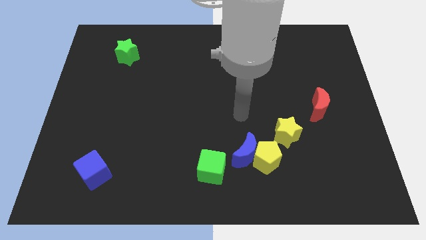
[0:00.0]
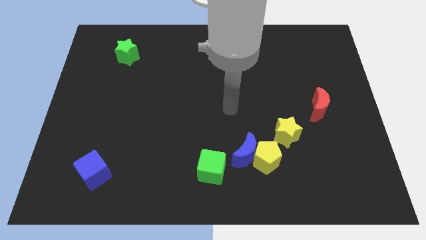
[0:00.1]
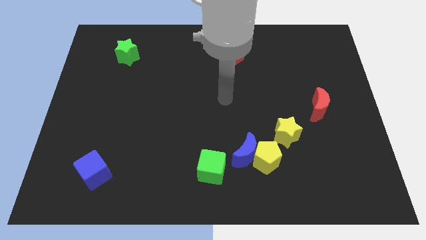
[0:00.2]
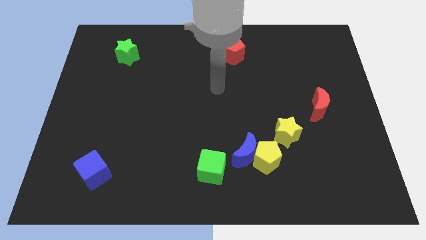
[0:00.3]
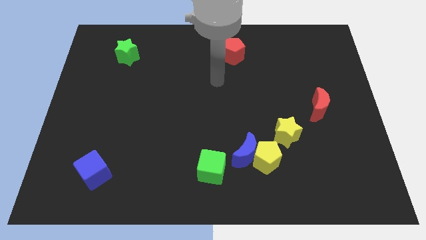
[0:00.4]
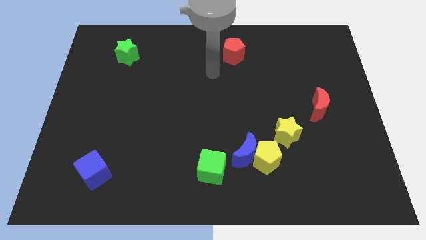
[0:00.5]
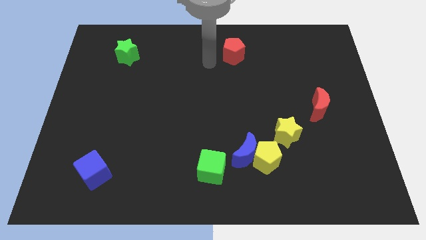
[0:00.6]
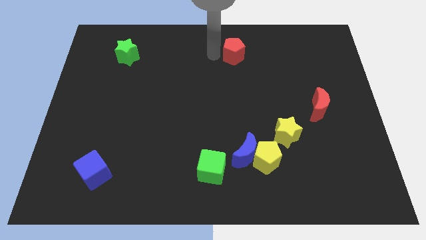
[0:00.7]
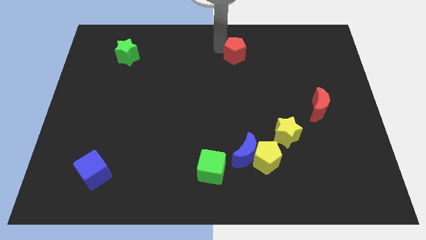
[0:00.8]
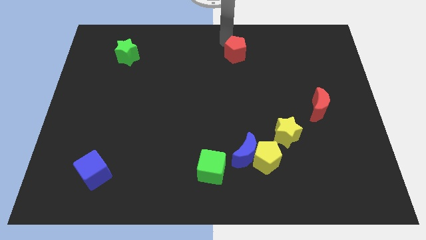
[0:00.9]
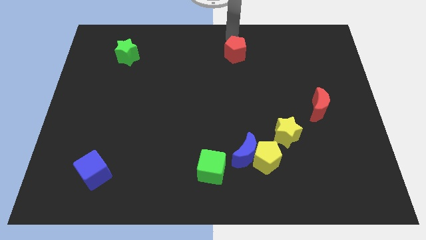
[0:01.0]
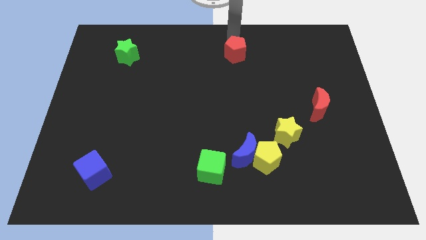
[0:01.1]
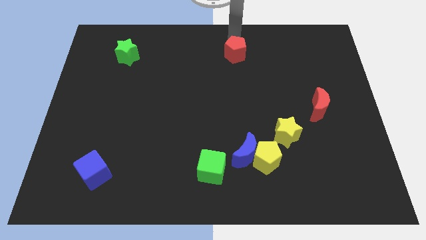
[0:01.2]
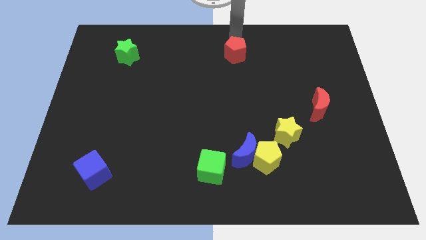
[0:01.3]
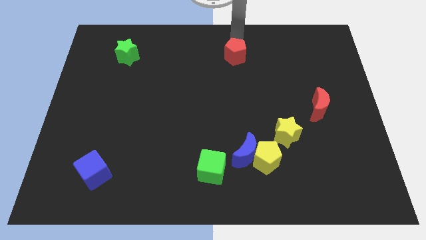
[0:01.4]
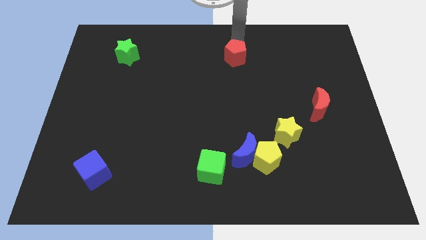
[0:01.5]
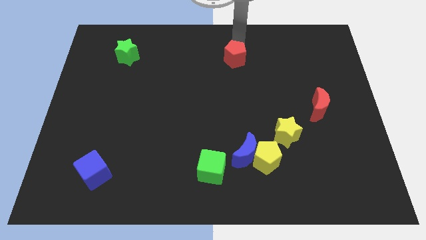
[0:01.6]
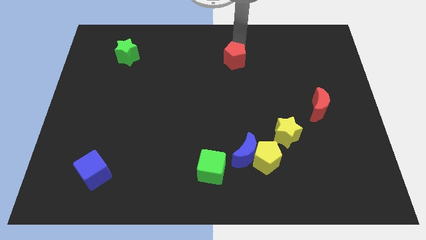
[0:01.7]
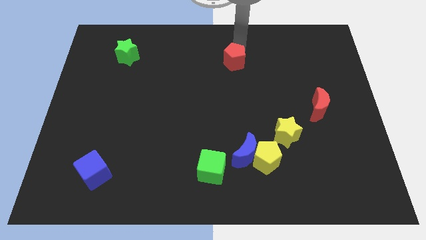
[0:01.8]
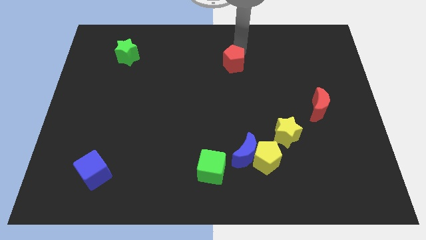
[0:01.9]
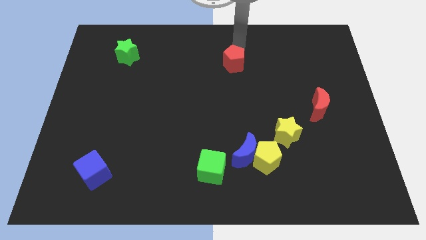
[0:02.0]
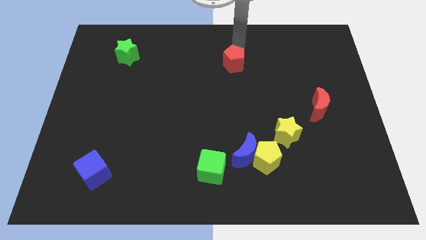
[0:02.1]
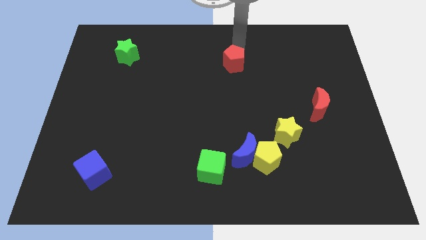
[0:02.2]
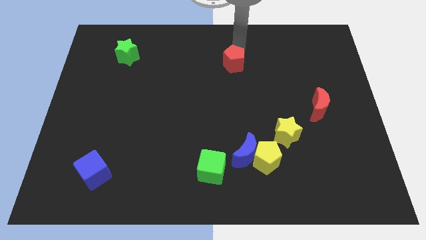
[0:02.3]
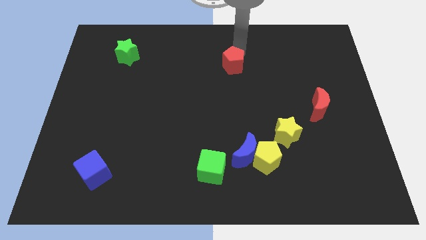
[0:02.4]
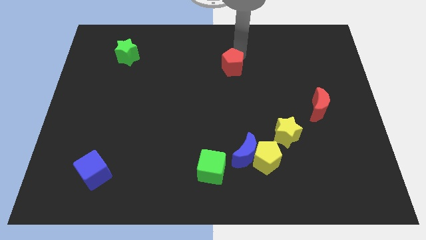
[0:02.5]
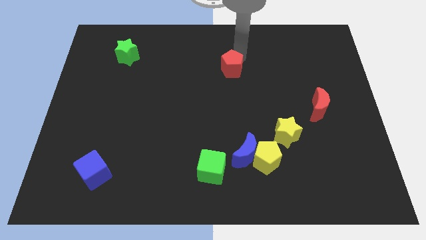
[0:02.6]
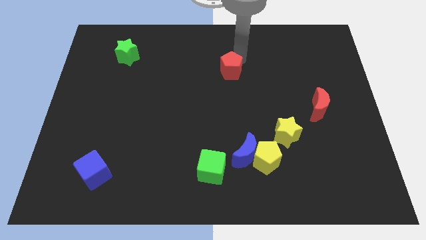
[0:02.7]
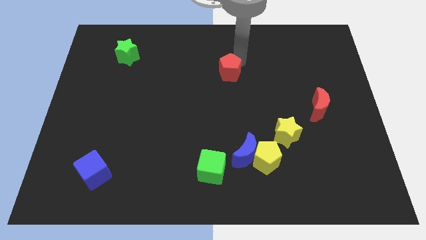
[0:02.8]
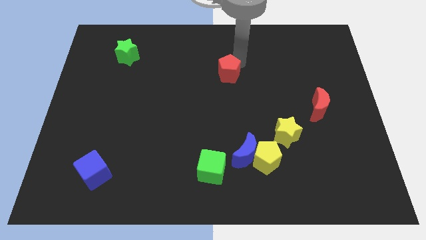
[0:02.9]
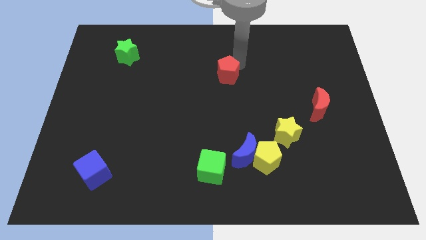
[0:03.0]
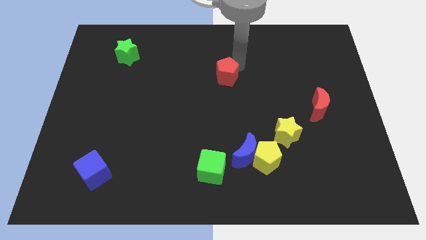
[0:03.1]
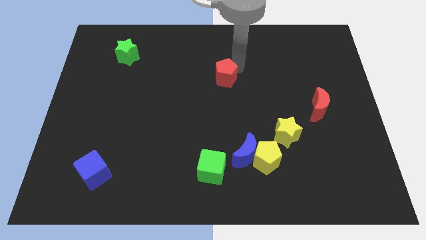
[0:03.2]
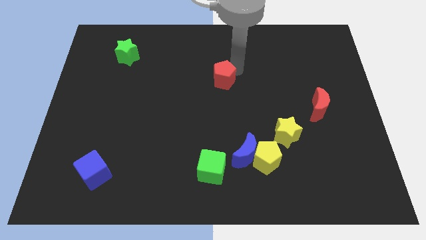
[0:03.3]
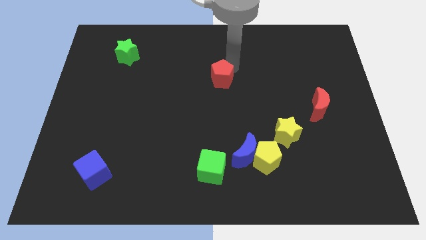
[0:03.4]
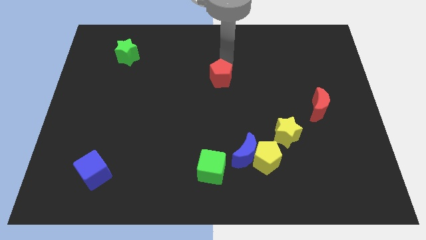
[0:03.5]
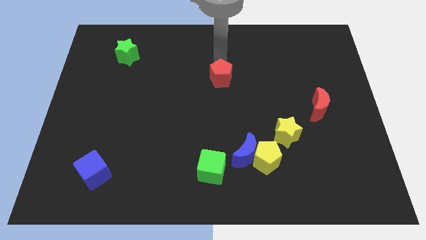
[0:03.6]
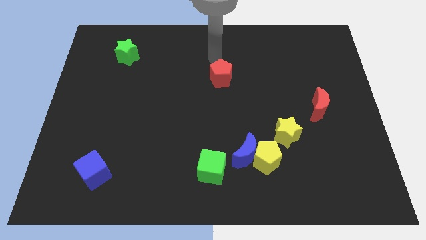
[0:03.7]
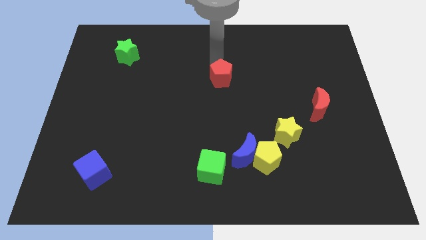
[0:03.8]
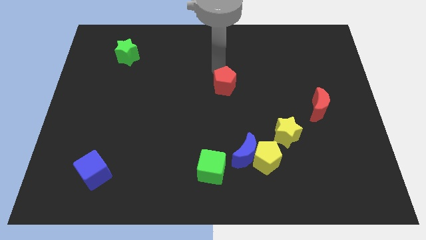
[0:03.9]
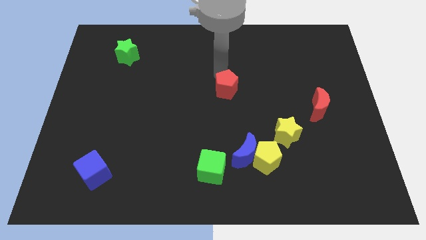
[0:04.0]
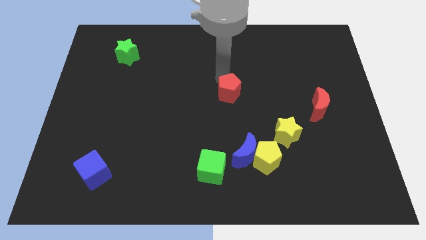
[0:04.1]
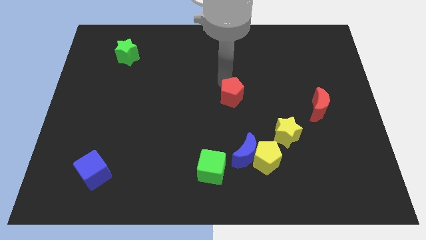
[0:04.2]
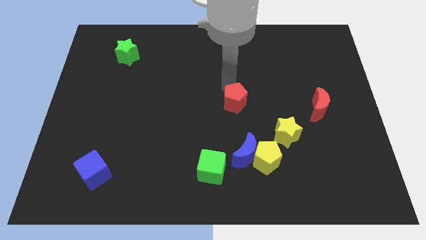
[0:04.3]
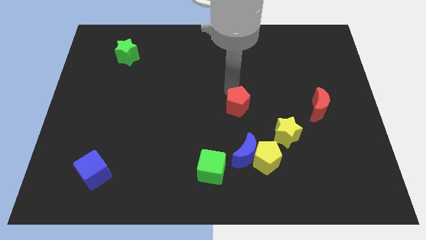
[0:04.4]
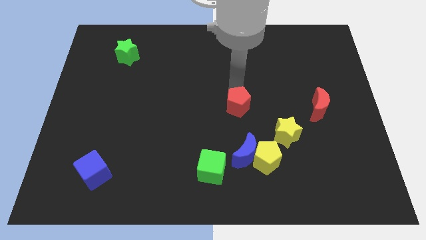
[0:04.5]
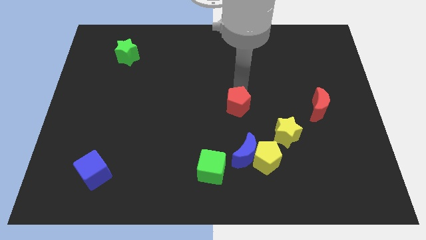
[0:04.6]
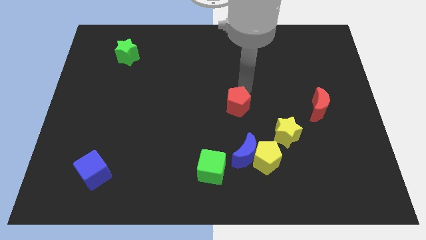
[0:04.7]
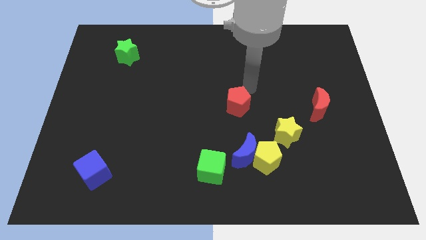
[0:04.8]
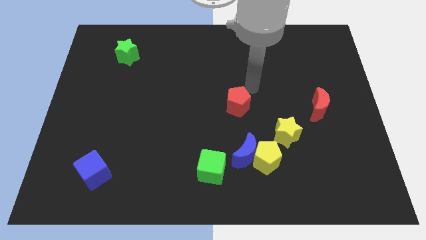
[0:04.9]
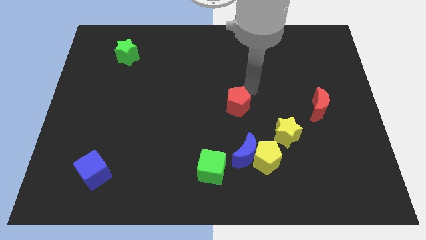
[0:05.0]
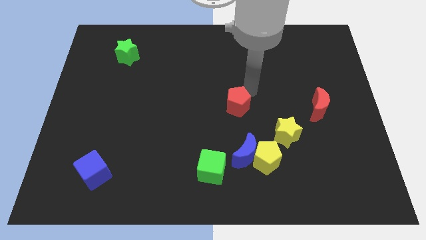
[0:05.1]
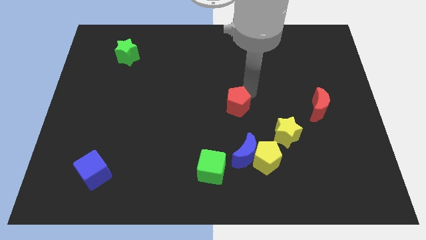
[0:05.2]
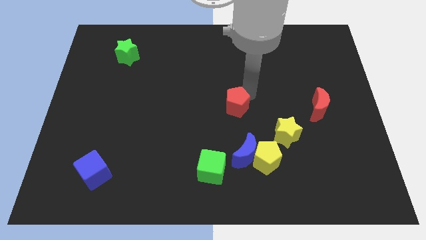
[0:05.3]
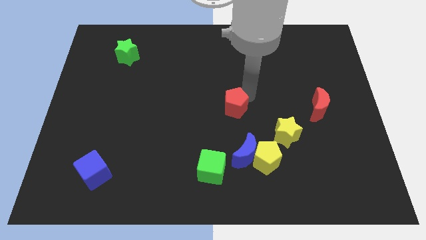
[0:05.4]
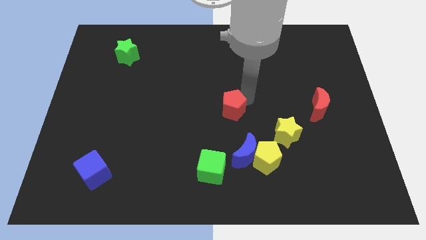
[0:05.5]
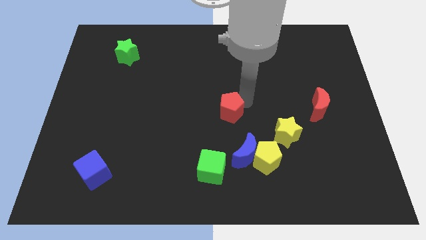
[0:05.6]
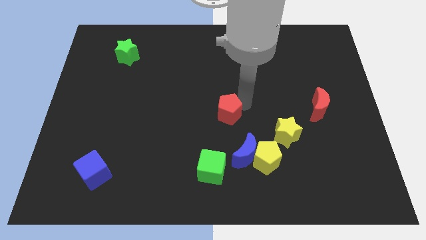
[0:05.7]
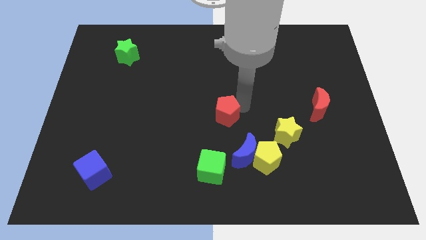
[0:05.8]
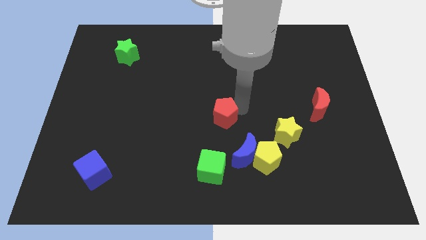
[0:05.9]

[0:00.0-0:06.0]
slide the red pentagon to the top left side of the blue moon
